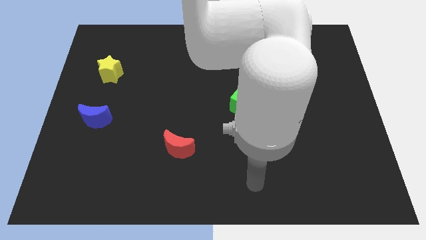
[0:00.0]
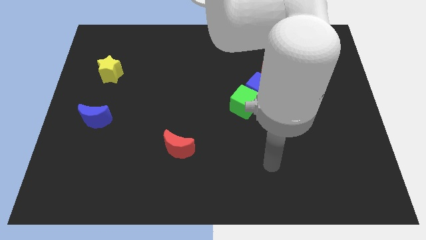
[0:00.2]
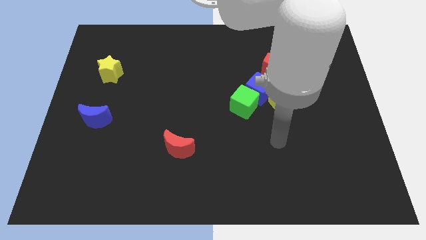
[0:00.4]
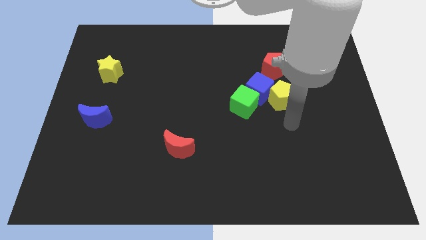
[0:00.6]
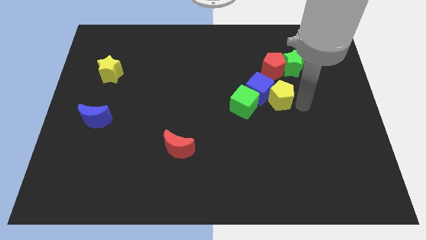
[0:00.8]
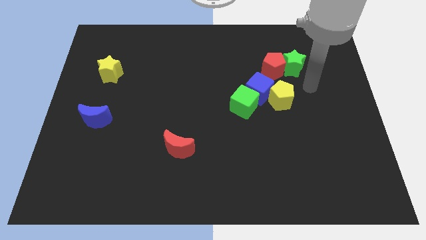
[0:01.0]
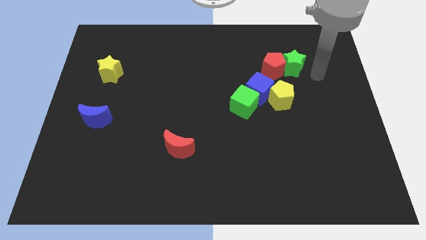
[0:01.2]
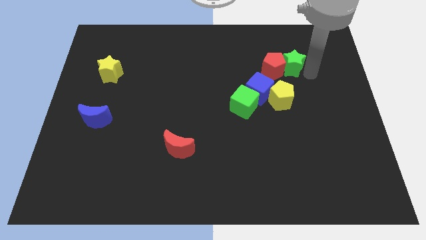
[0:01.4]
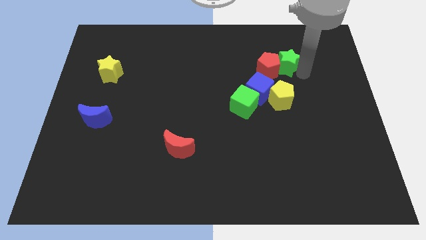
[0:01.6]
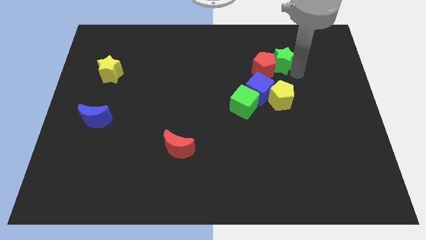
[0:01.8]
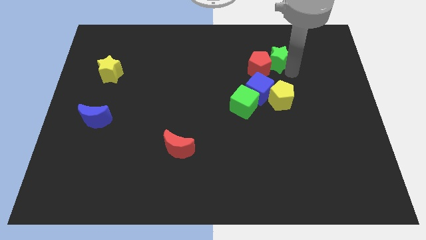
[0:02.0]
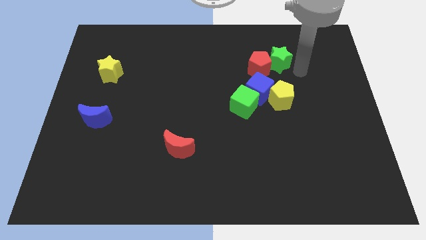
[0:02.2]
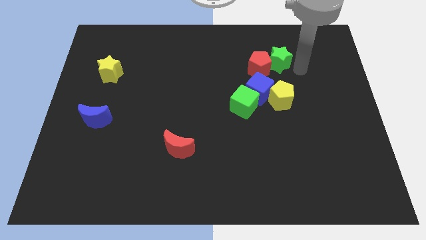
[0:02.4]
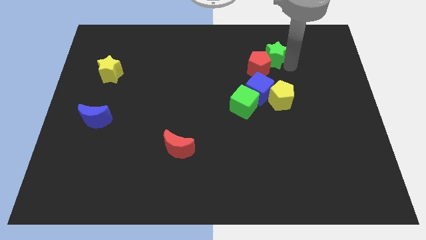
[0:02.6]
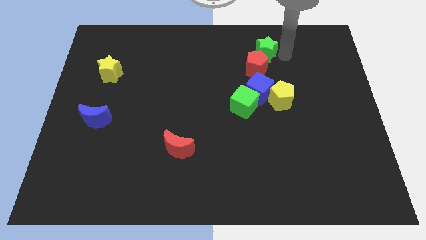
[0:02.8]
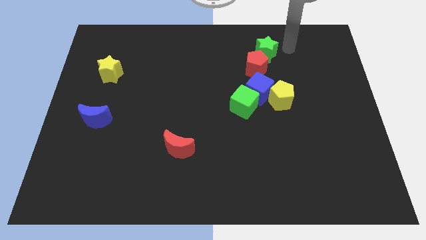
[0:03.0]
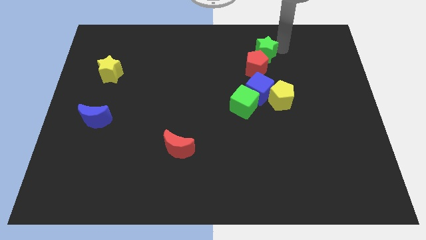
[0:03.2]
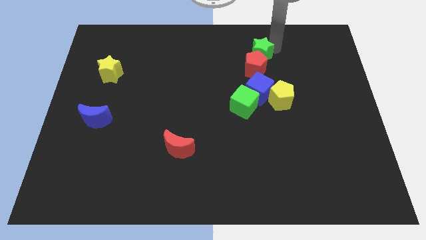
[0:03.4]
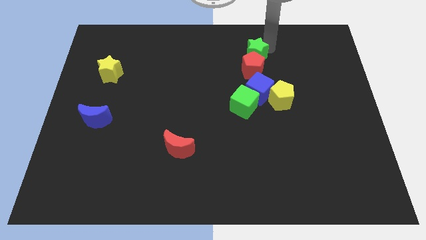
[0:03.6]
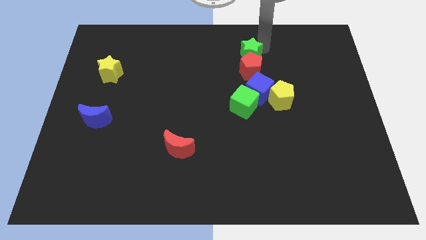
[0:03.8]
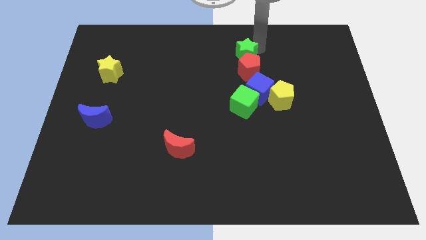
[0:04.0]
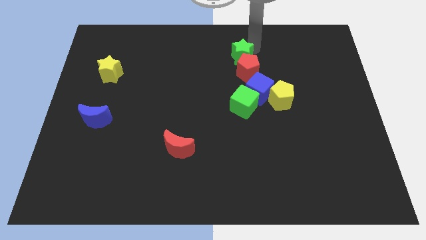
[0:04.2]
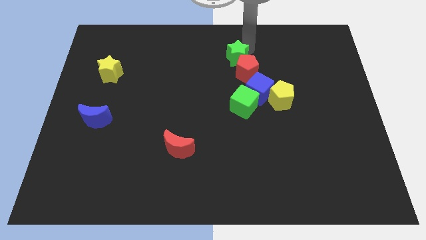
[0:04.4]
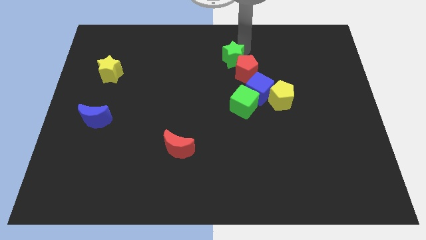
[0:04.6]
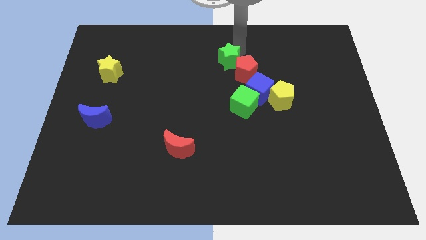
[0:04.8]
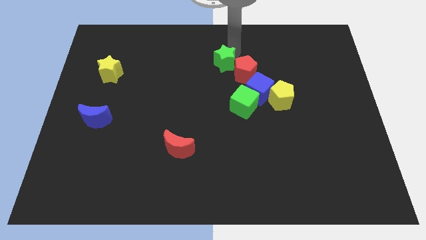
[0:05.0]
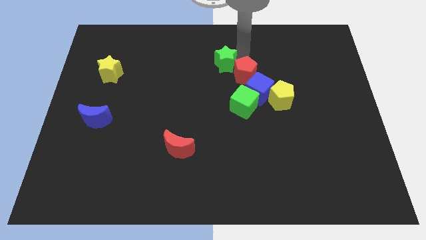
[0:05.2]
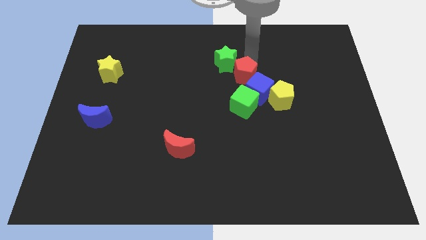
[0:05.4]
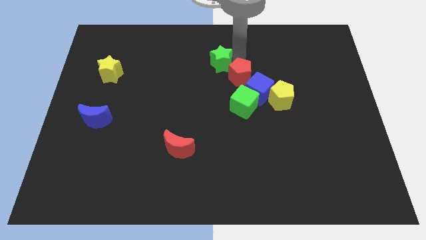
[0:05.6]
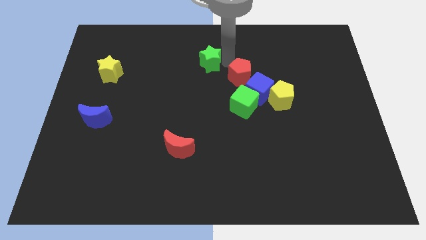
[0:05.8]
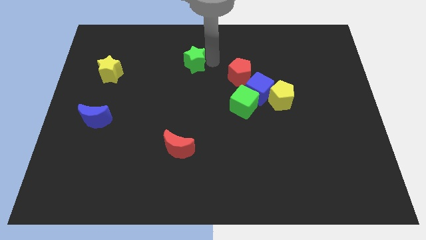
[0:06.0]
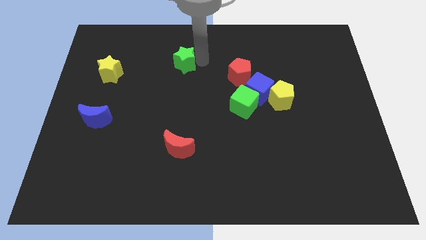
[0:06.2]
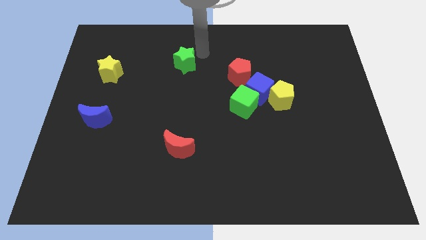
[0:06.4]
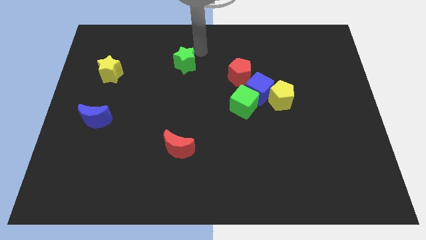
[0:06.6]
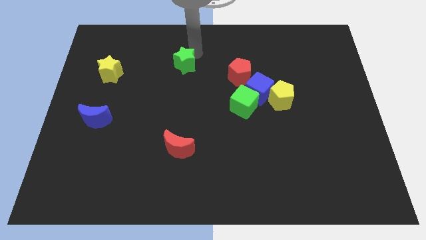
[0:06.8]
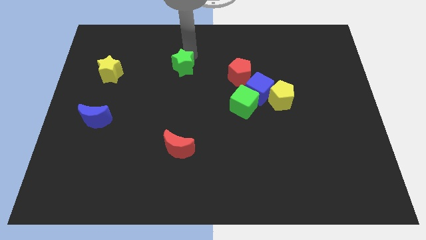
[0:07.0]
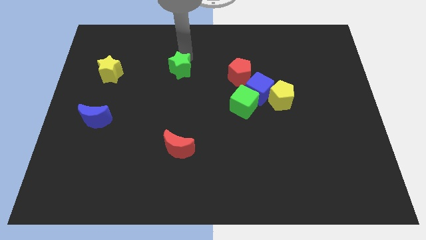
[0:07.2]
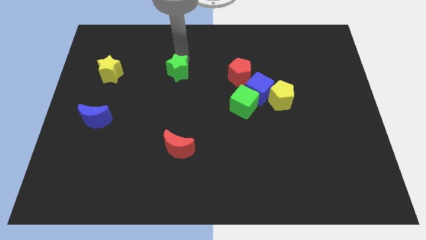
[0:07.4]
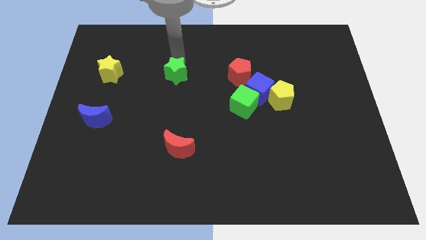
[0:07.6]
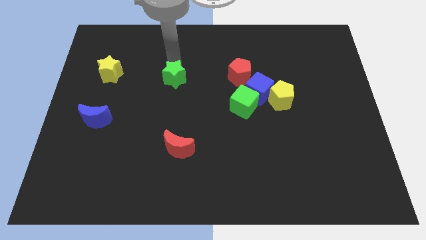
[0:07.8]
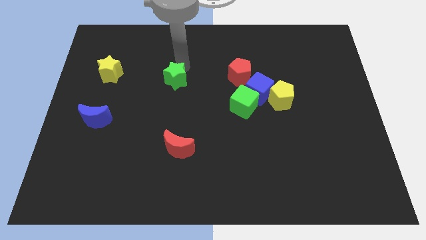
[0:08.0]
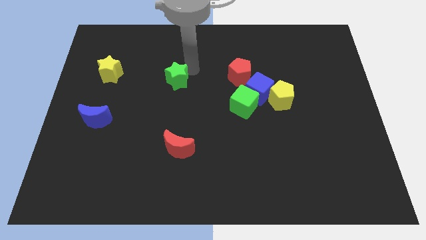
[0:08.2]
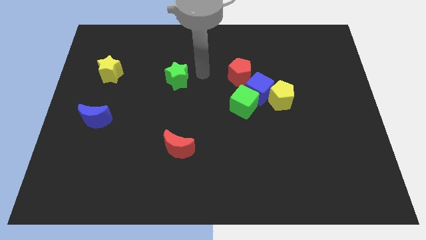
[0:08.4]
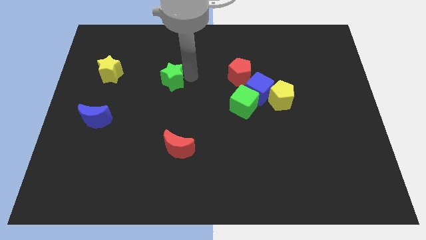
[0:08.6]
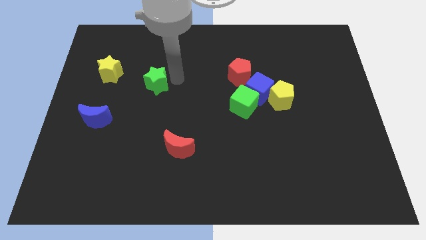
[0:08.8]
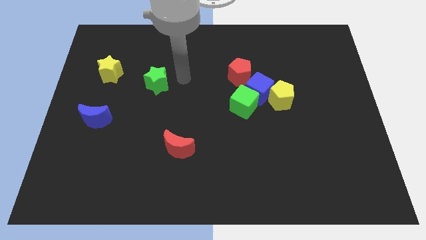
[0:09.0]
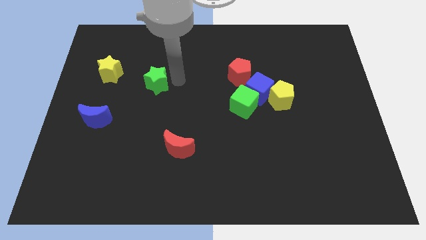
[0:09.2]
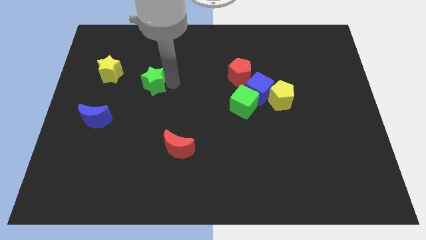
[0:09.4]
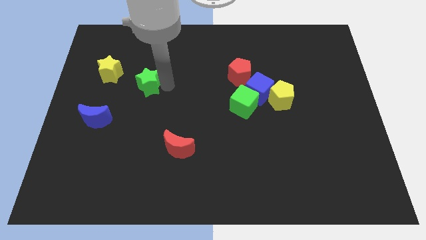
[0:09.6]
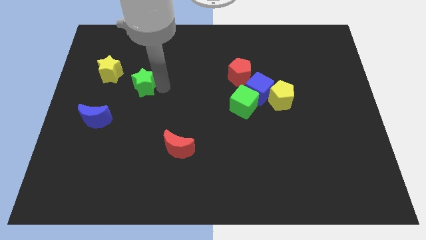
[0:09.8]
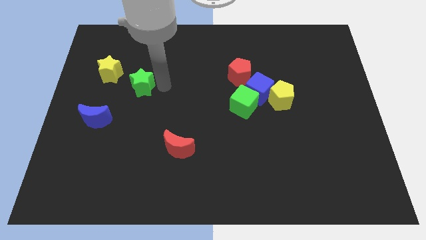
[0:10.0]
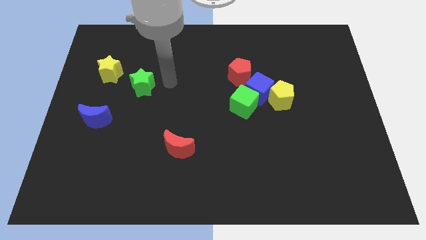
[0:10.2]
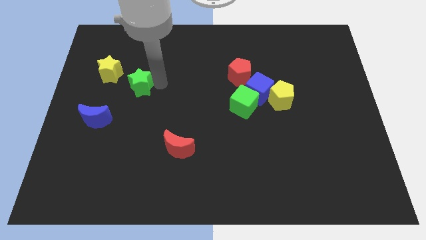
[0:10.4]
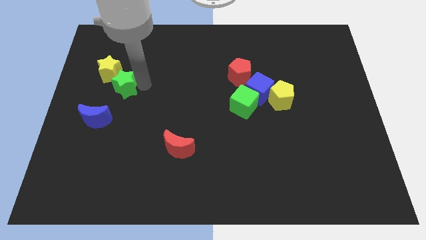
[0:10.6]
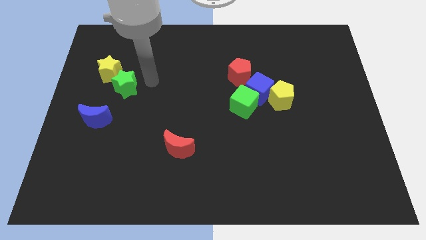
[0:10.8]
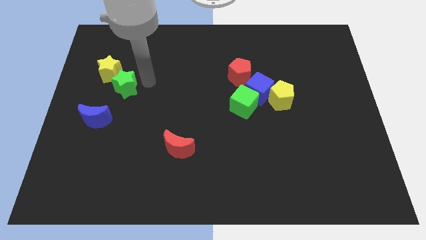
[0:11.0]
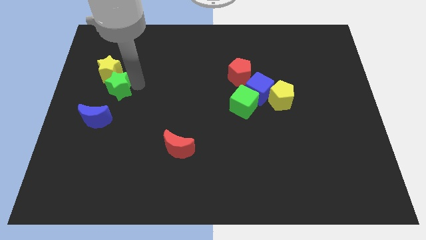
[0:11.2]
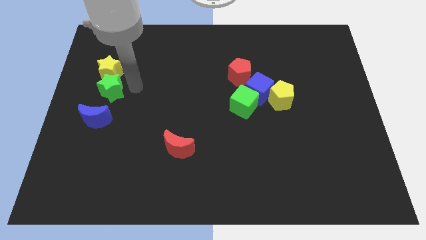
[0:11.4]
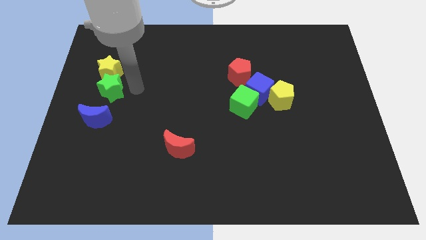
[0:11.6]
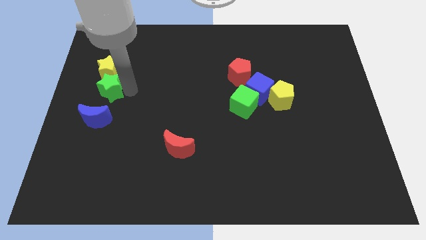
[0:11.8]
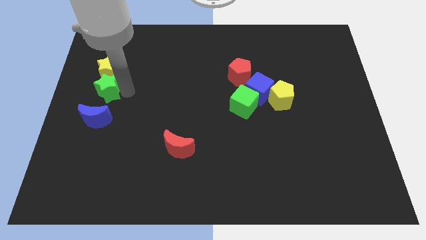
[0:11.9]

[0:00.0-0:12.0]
put the green star to the center left
